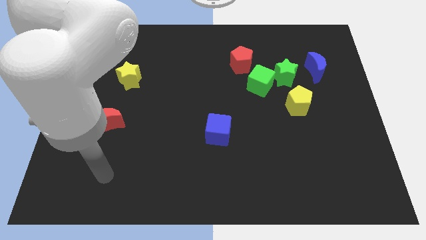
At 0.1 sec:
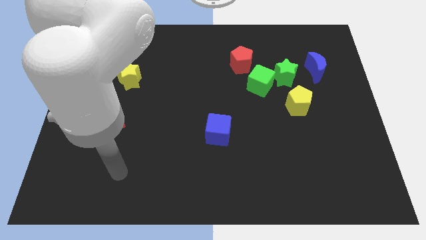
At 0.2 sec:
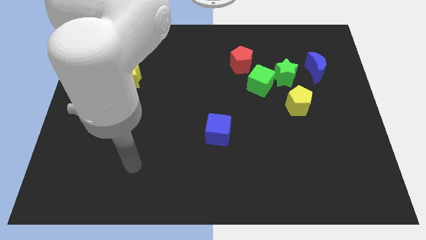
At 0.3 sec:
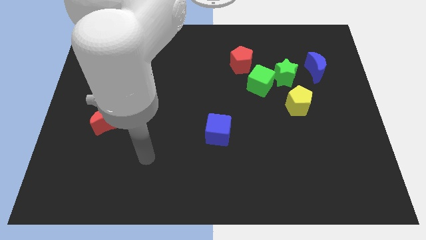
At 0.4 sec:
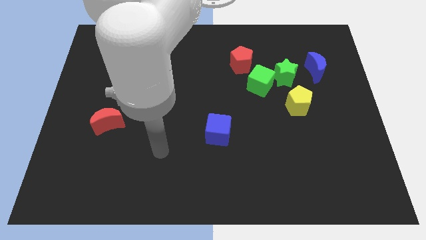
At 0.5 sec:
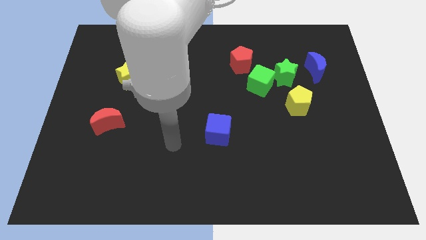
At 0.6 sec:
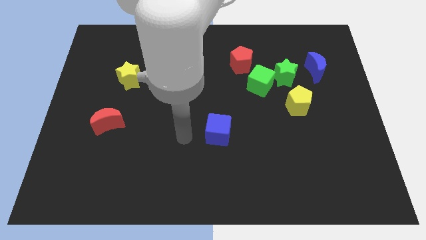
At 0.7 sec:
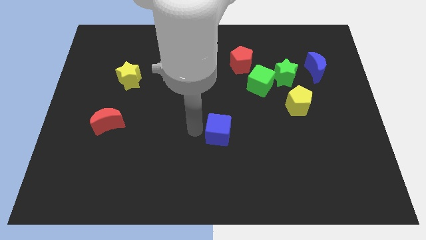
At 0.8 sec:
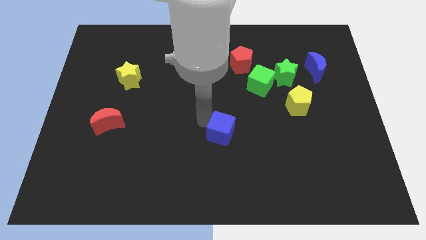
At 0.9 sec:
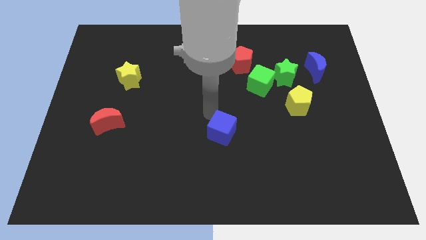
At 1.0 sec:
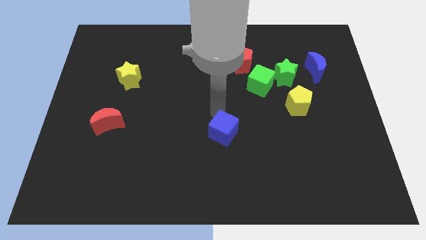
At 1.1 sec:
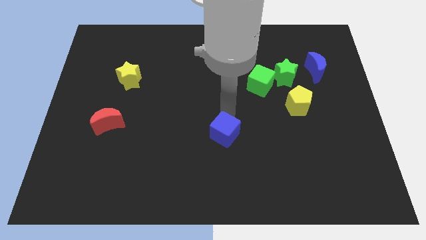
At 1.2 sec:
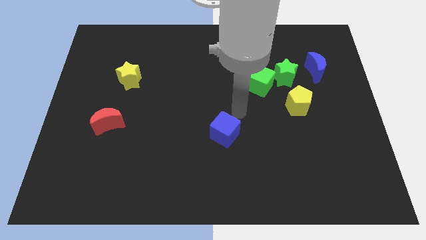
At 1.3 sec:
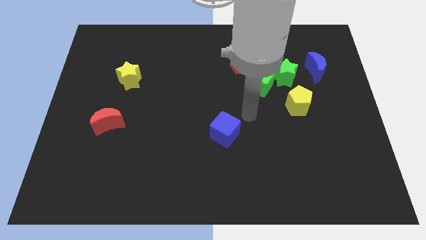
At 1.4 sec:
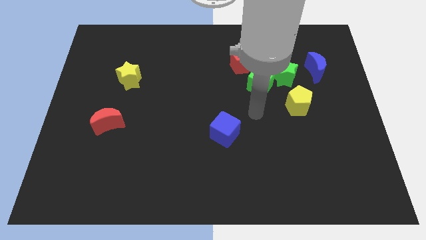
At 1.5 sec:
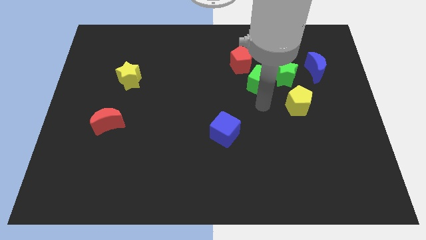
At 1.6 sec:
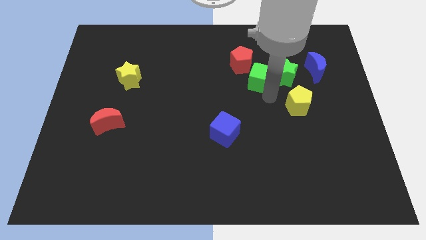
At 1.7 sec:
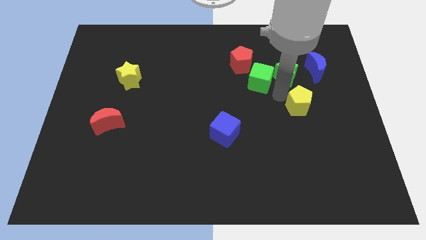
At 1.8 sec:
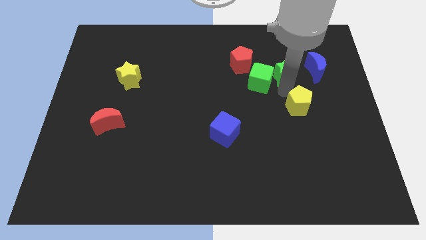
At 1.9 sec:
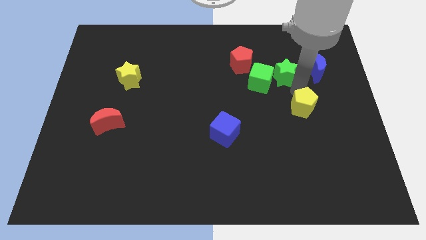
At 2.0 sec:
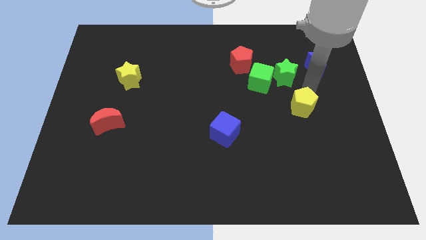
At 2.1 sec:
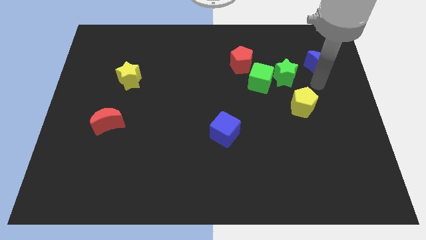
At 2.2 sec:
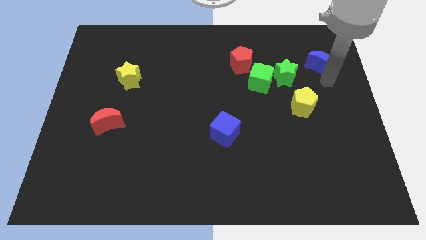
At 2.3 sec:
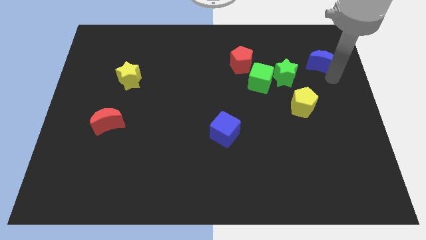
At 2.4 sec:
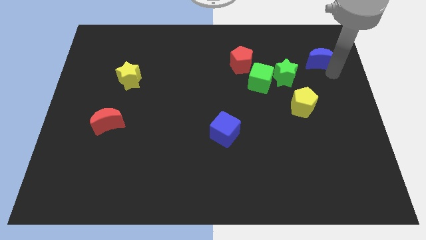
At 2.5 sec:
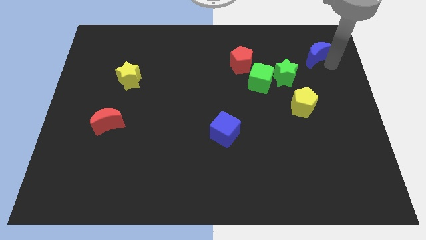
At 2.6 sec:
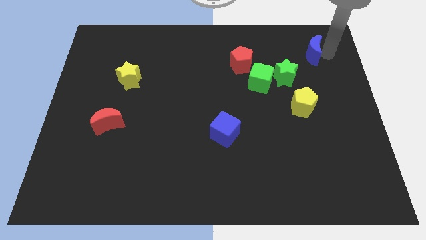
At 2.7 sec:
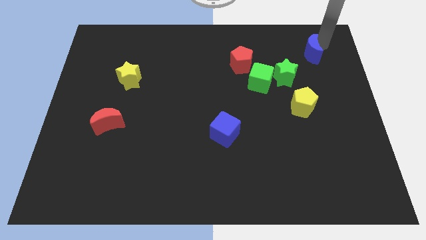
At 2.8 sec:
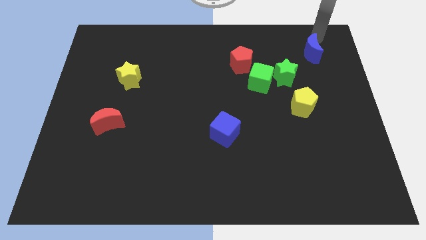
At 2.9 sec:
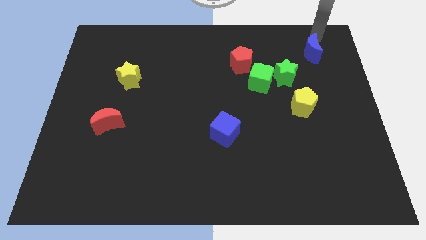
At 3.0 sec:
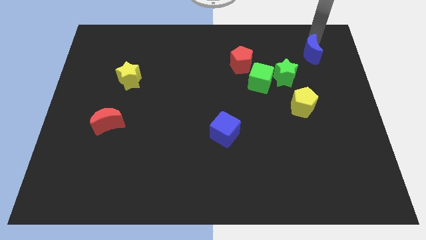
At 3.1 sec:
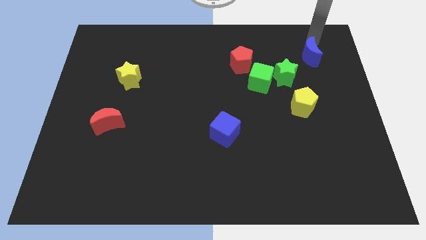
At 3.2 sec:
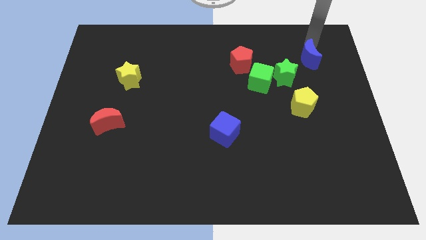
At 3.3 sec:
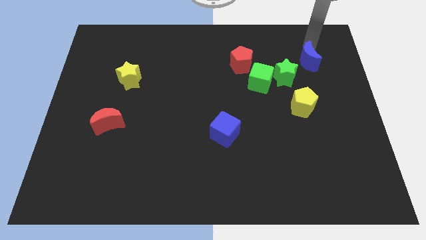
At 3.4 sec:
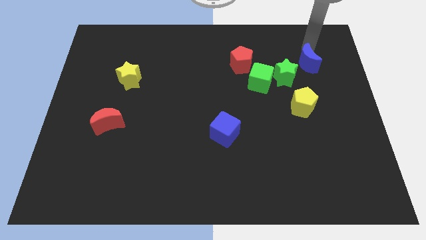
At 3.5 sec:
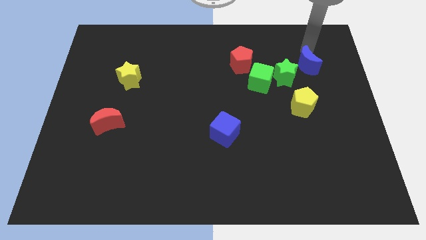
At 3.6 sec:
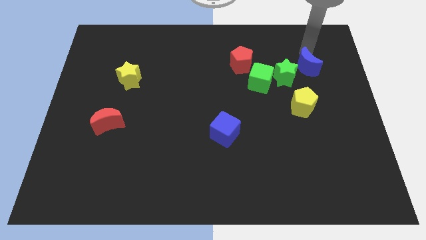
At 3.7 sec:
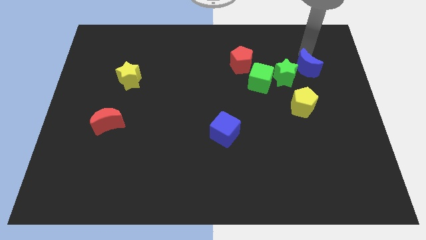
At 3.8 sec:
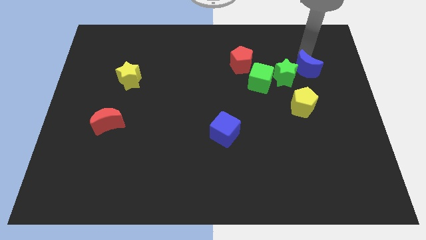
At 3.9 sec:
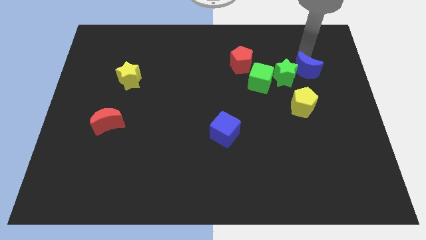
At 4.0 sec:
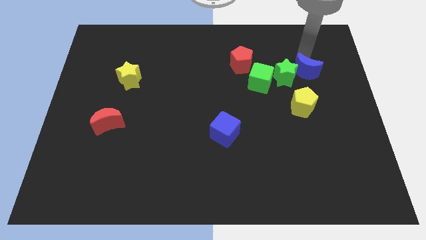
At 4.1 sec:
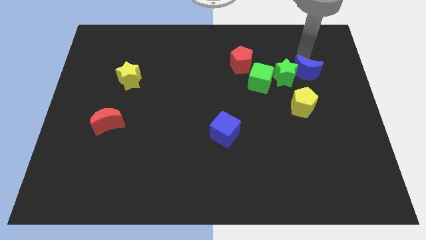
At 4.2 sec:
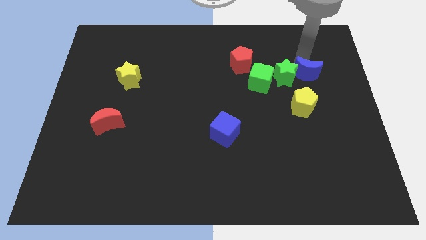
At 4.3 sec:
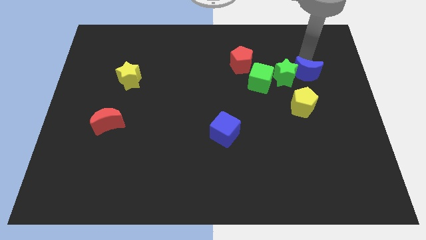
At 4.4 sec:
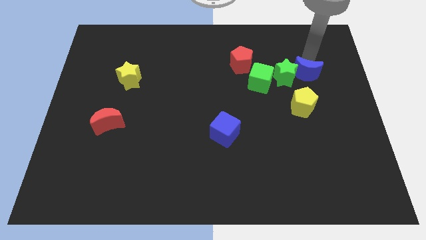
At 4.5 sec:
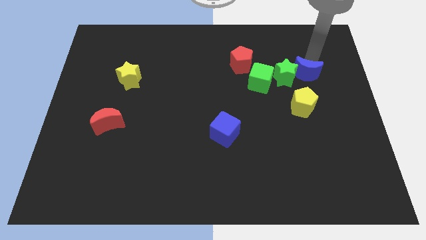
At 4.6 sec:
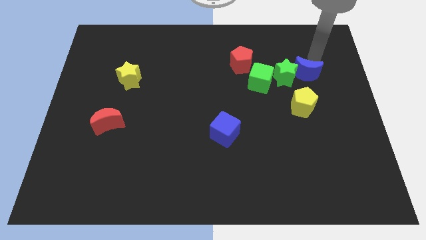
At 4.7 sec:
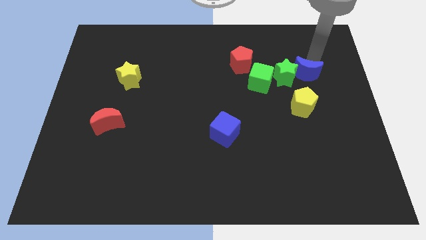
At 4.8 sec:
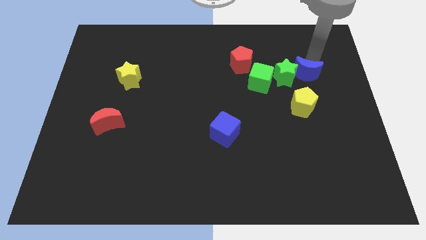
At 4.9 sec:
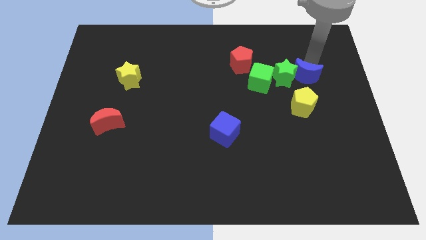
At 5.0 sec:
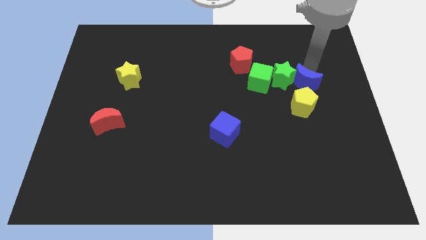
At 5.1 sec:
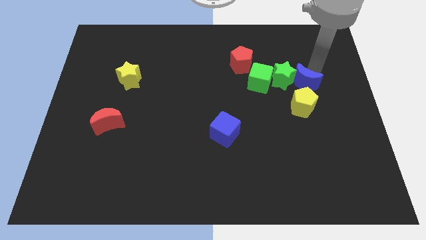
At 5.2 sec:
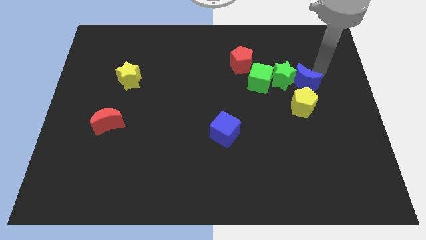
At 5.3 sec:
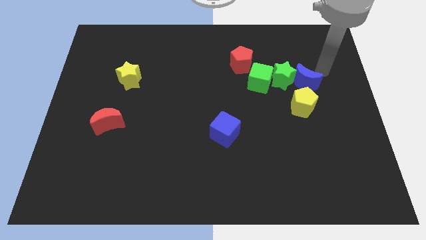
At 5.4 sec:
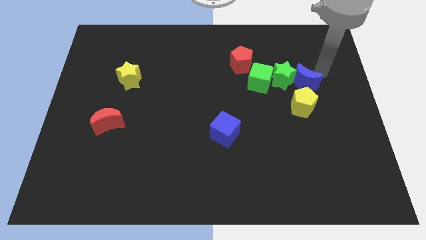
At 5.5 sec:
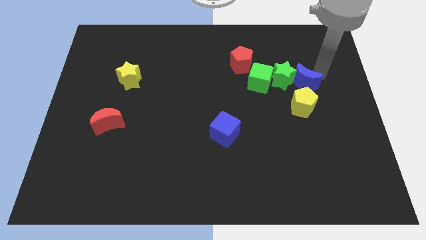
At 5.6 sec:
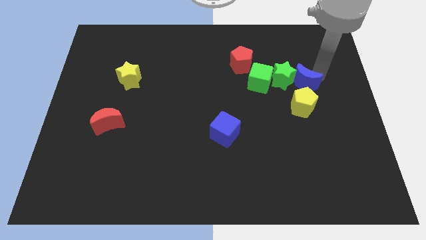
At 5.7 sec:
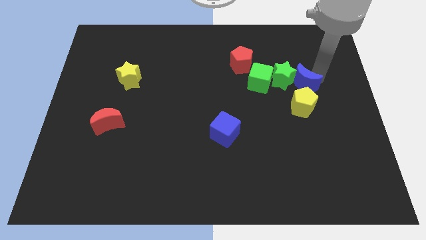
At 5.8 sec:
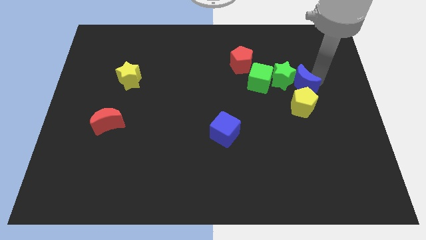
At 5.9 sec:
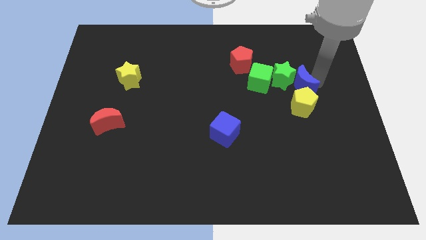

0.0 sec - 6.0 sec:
move the blue moon downwards and to the left slightly

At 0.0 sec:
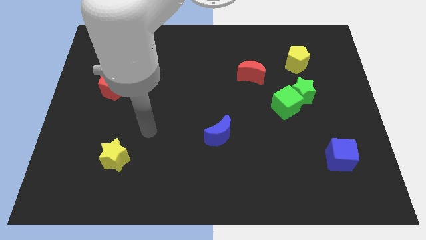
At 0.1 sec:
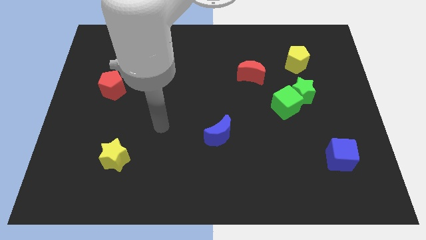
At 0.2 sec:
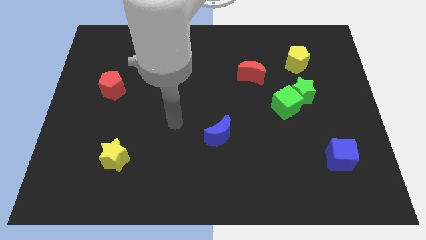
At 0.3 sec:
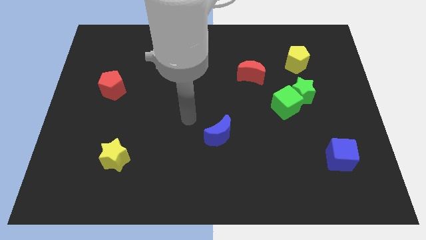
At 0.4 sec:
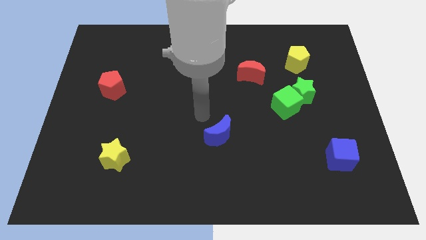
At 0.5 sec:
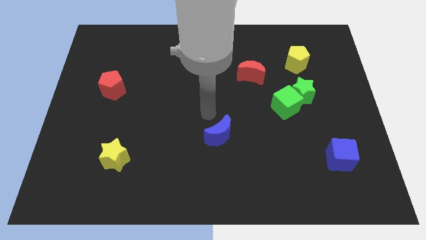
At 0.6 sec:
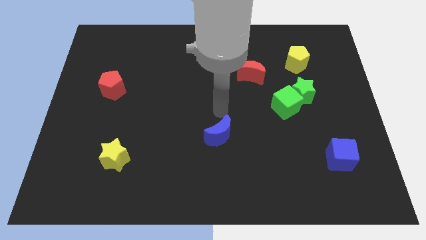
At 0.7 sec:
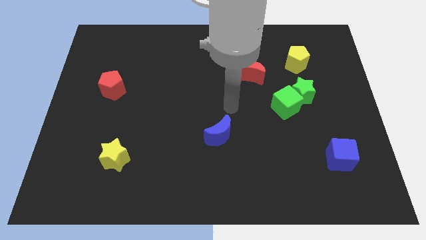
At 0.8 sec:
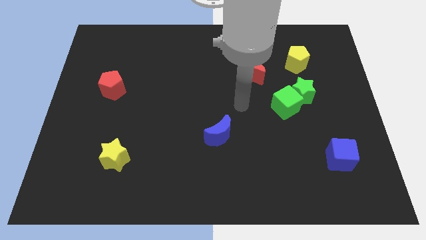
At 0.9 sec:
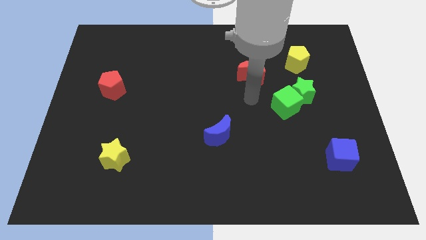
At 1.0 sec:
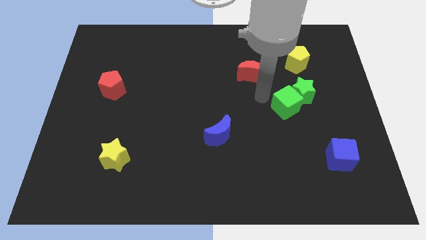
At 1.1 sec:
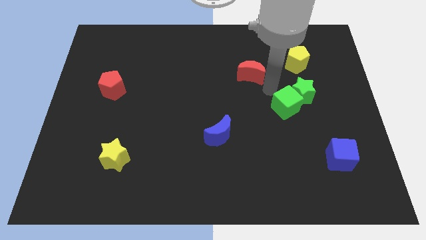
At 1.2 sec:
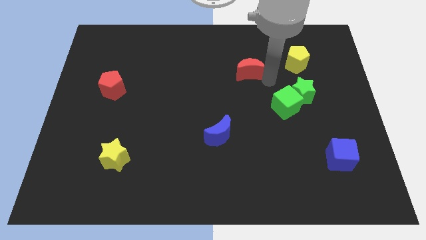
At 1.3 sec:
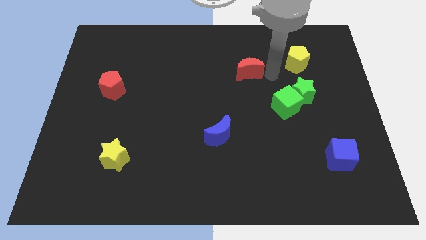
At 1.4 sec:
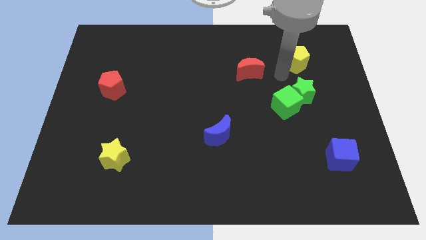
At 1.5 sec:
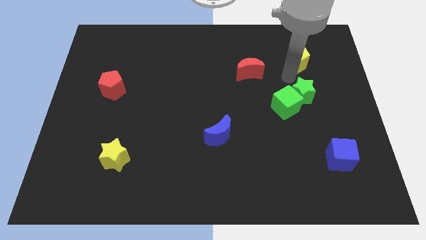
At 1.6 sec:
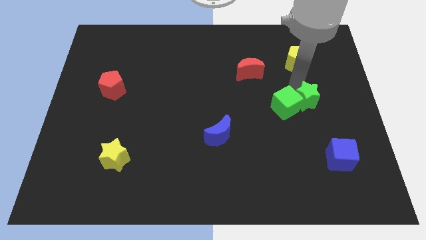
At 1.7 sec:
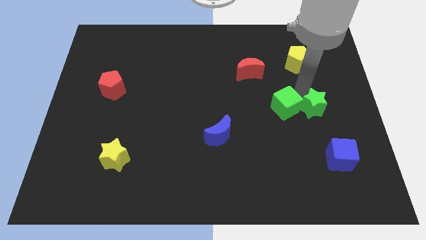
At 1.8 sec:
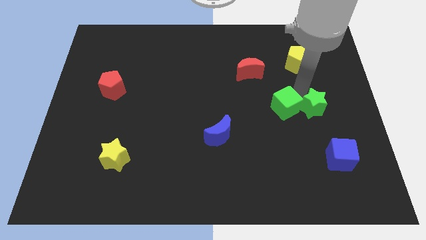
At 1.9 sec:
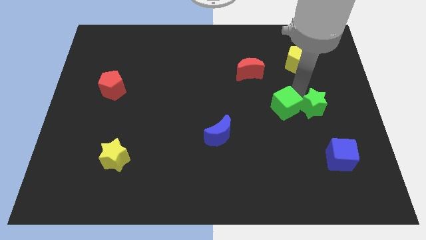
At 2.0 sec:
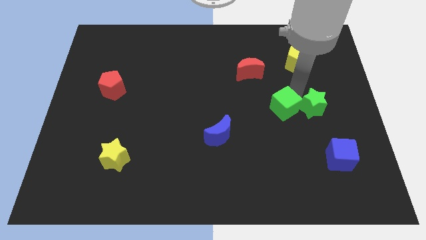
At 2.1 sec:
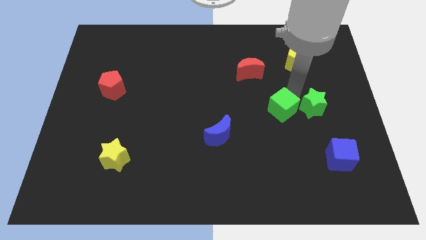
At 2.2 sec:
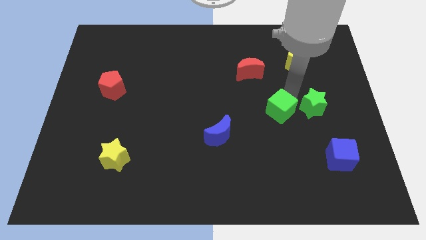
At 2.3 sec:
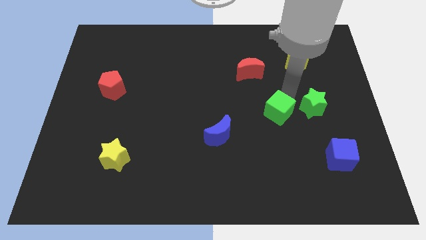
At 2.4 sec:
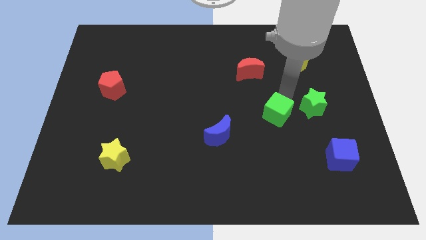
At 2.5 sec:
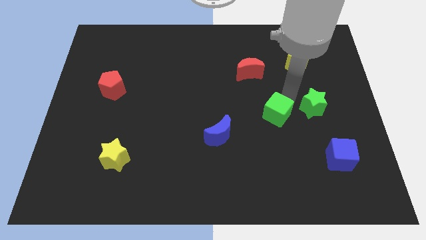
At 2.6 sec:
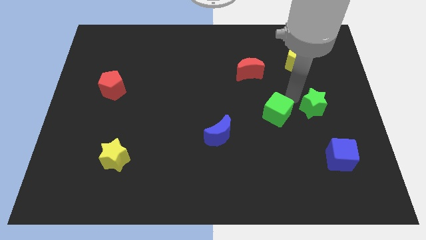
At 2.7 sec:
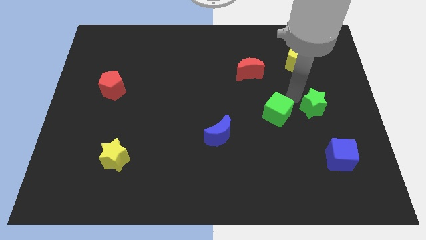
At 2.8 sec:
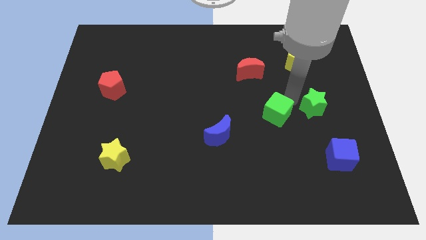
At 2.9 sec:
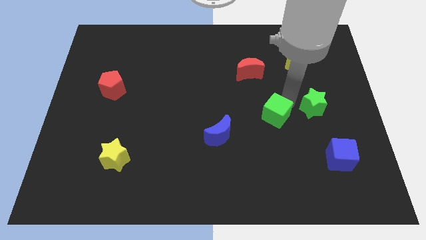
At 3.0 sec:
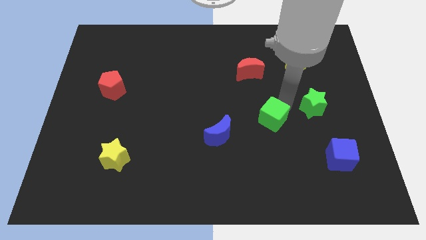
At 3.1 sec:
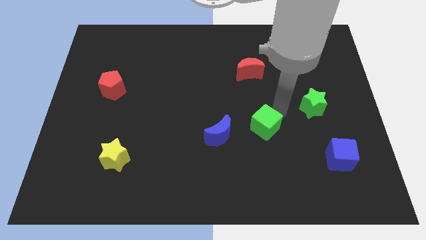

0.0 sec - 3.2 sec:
slightly slide the green cube diagonally down and to the left
